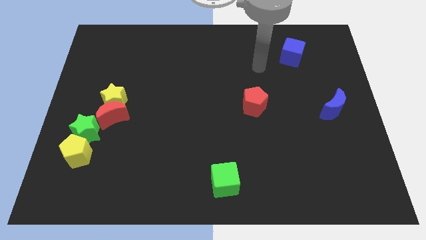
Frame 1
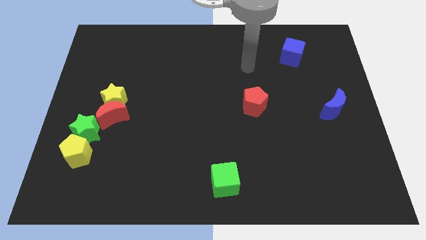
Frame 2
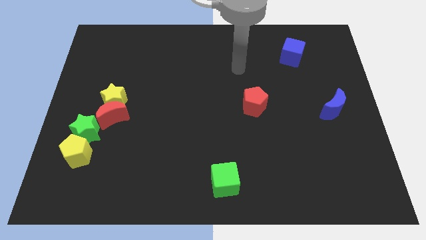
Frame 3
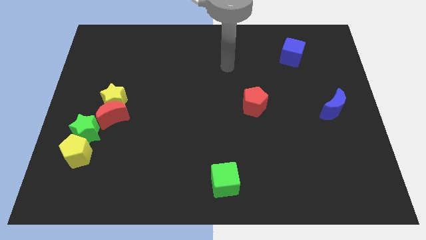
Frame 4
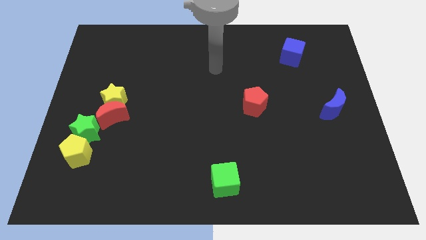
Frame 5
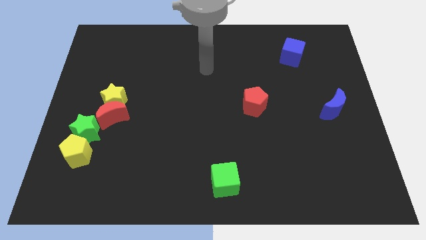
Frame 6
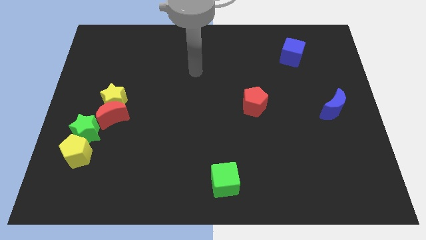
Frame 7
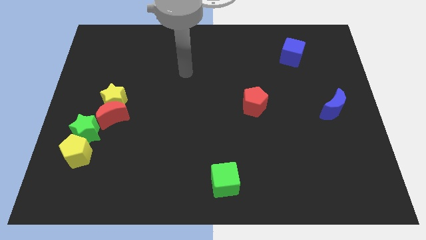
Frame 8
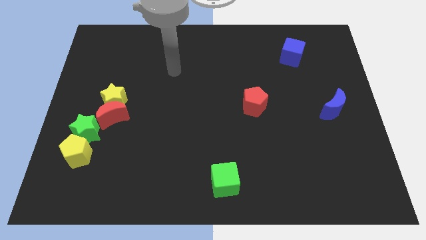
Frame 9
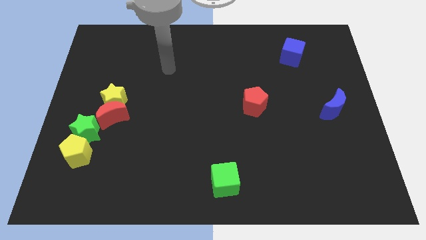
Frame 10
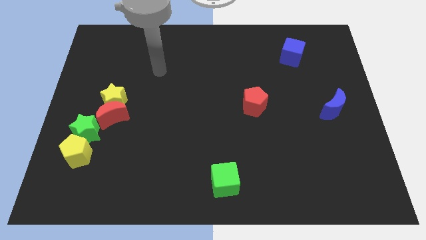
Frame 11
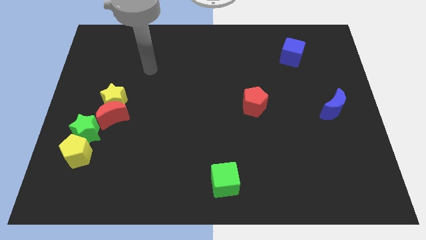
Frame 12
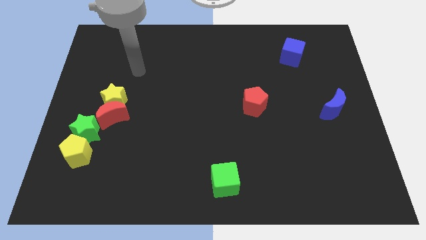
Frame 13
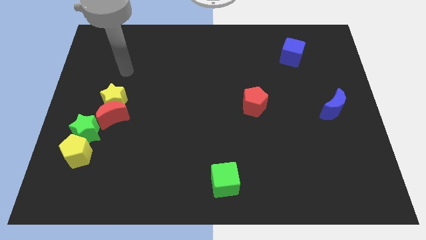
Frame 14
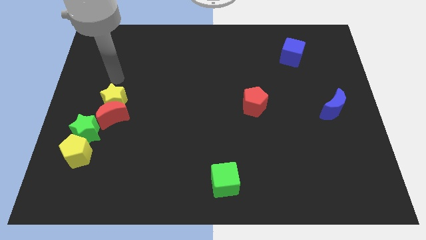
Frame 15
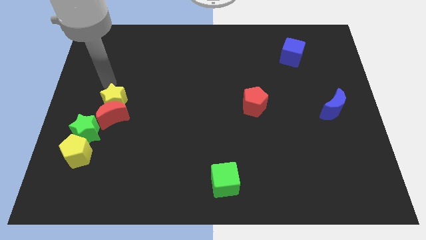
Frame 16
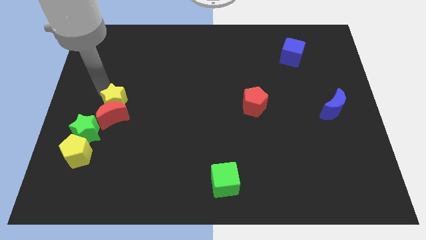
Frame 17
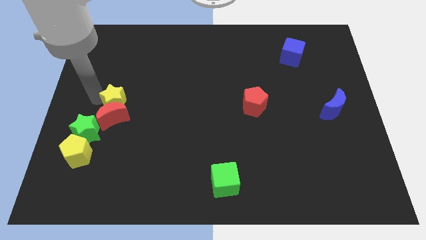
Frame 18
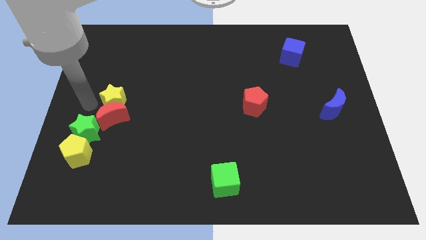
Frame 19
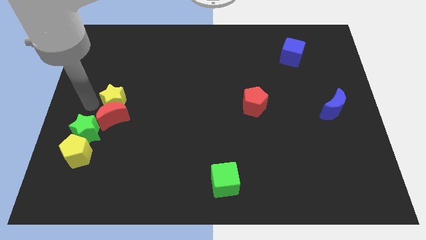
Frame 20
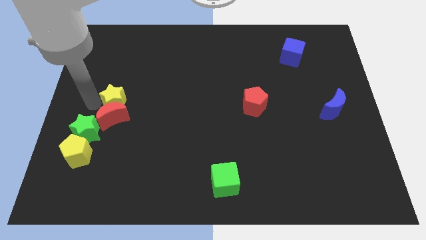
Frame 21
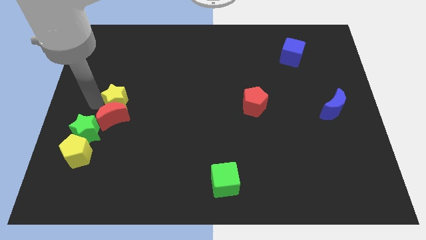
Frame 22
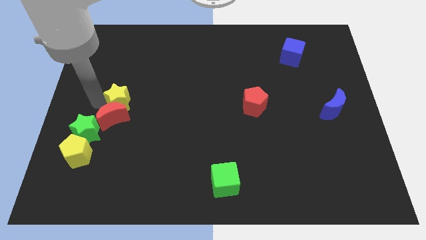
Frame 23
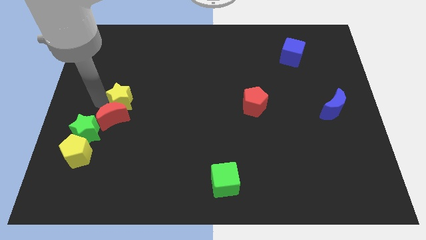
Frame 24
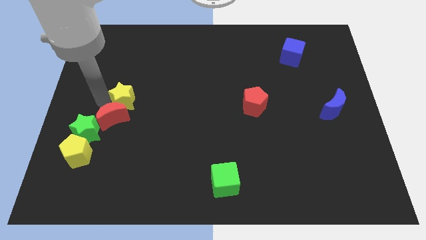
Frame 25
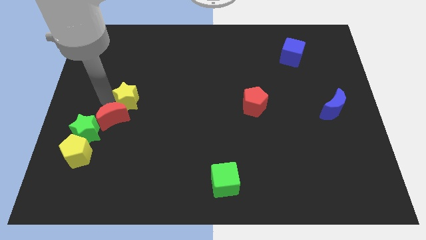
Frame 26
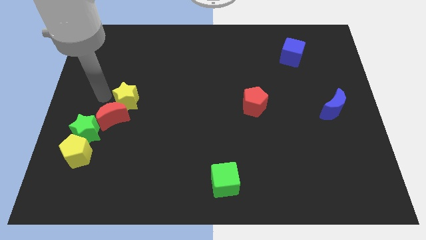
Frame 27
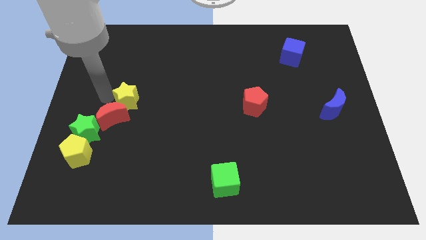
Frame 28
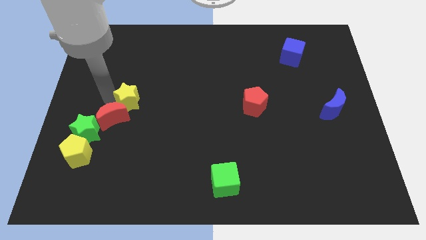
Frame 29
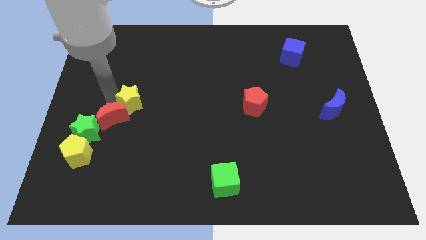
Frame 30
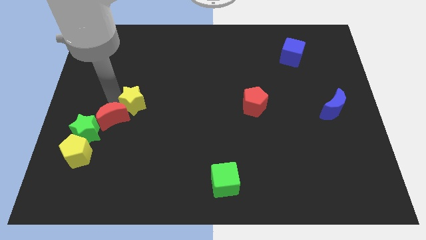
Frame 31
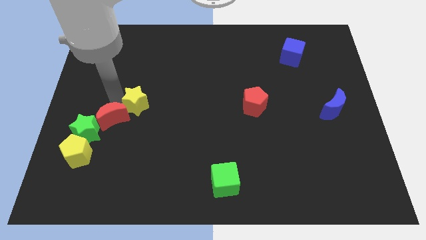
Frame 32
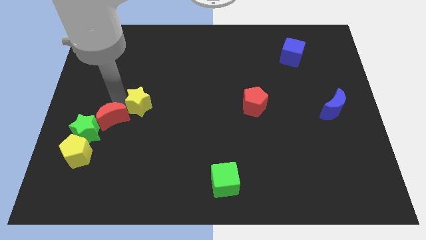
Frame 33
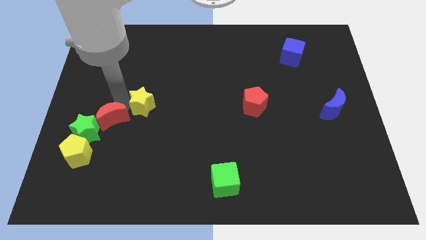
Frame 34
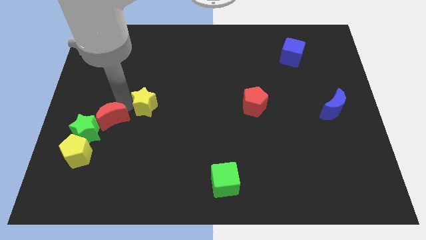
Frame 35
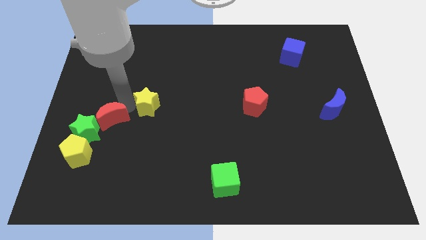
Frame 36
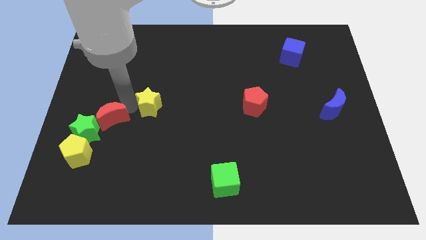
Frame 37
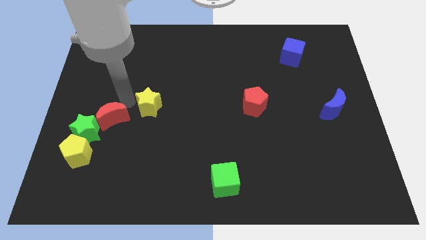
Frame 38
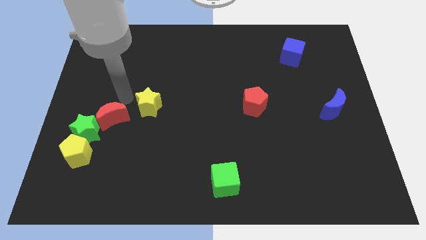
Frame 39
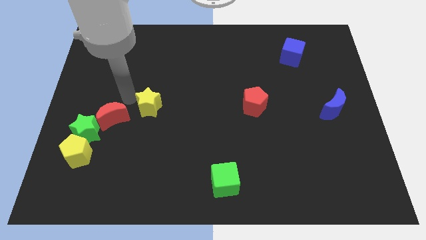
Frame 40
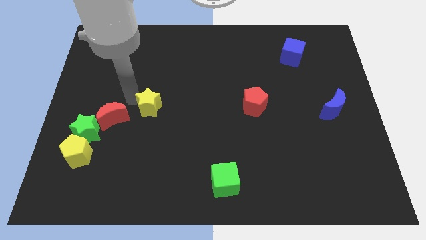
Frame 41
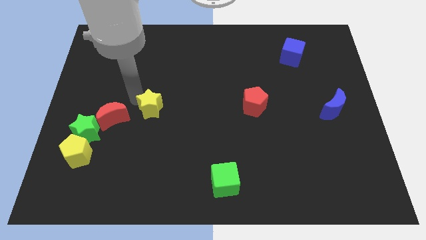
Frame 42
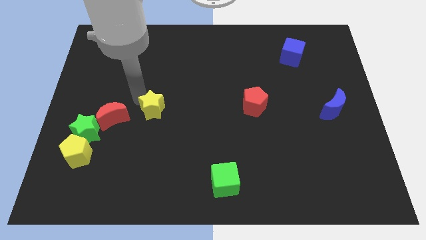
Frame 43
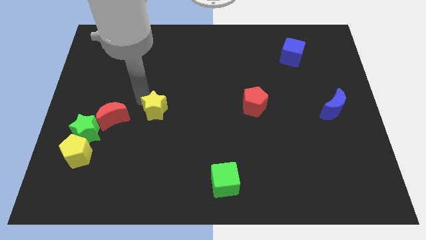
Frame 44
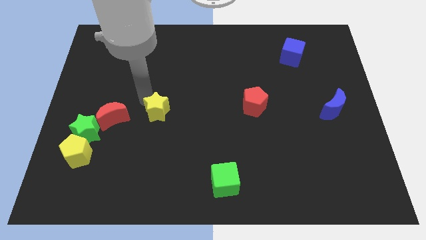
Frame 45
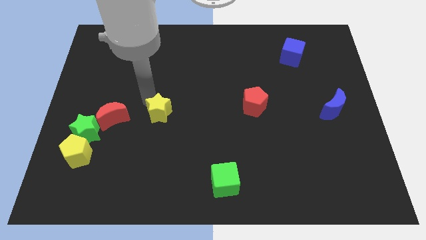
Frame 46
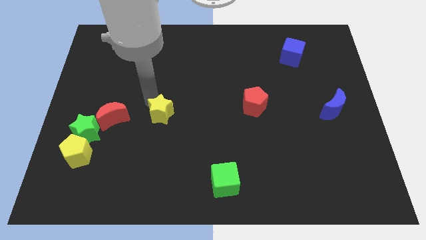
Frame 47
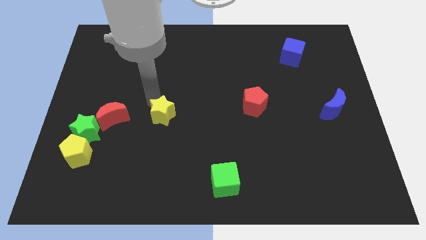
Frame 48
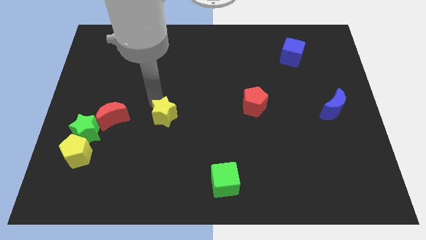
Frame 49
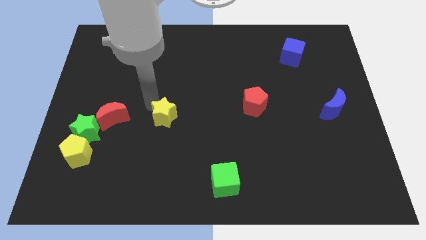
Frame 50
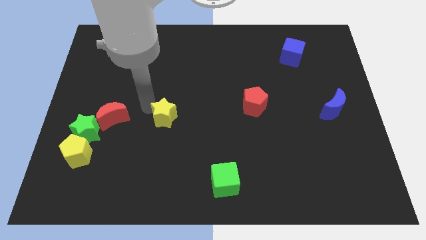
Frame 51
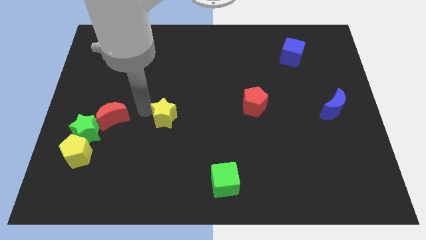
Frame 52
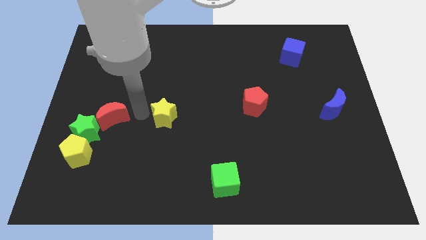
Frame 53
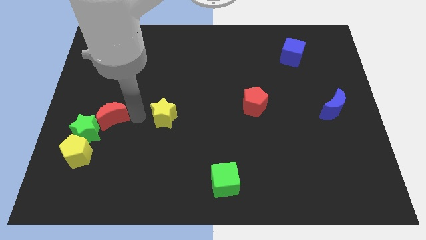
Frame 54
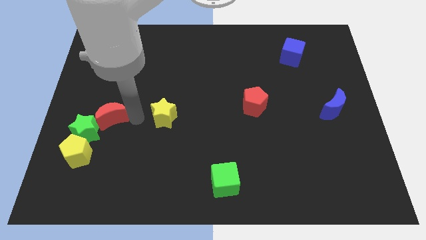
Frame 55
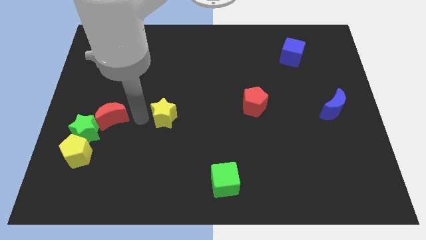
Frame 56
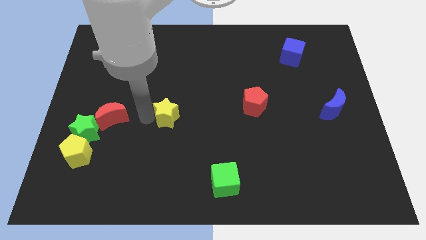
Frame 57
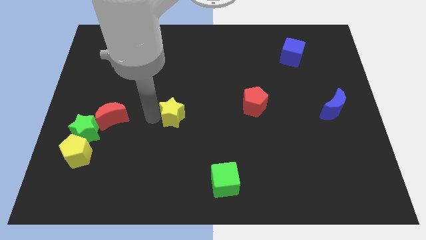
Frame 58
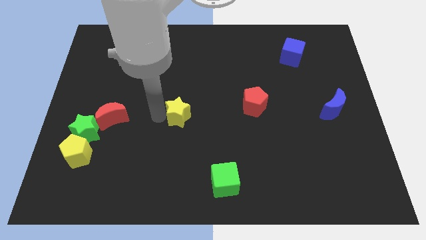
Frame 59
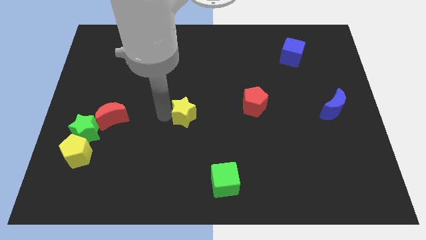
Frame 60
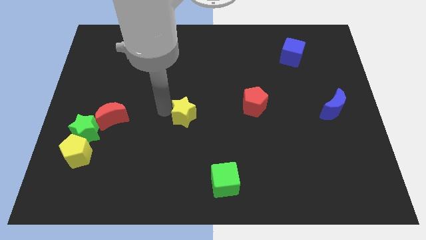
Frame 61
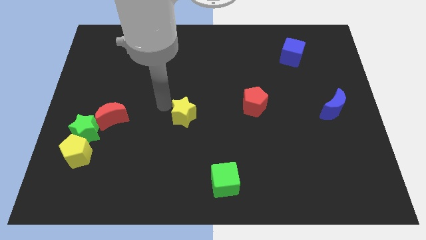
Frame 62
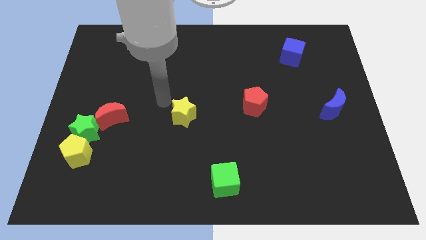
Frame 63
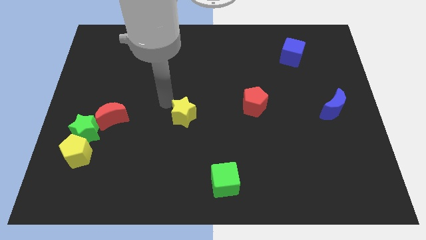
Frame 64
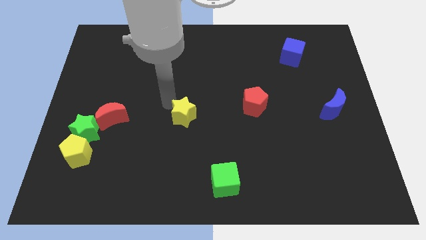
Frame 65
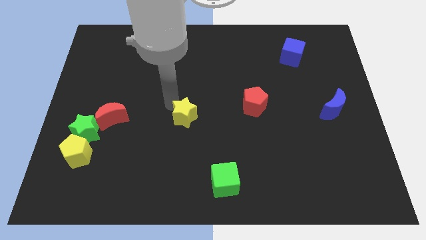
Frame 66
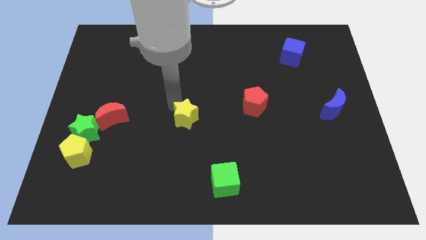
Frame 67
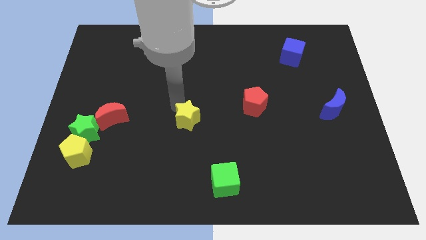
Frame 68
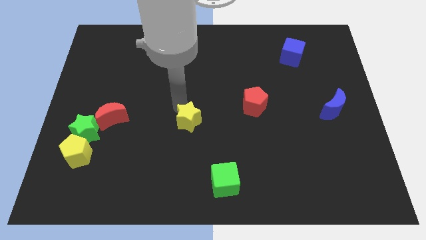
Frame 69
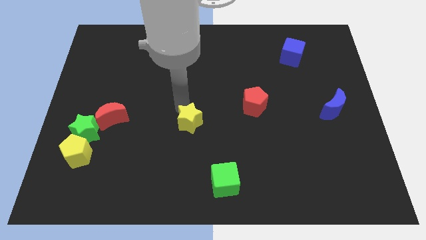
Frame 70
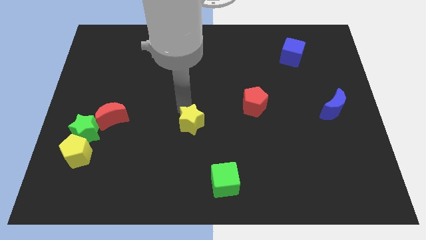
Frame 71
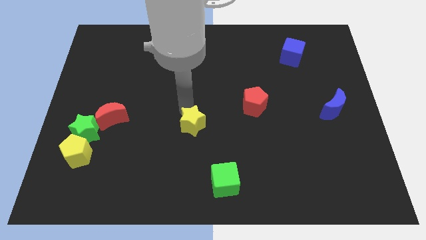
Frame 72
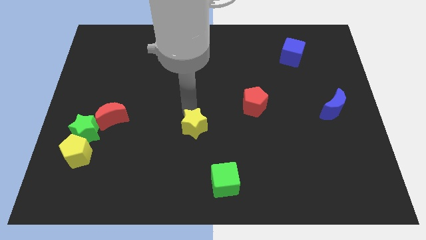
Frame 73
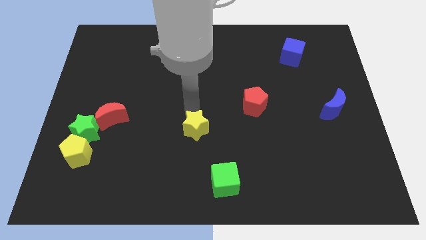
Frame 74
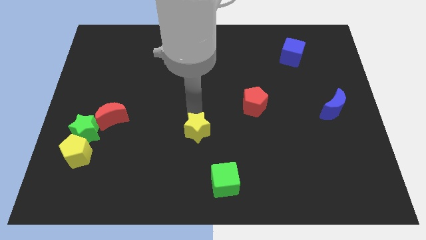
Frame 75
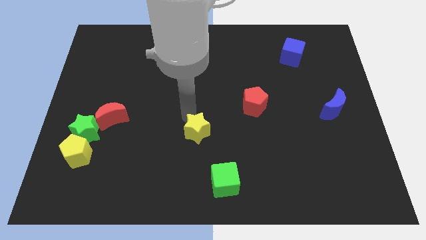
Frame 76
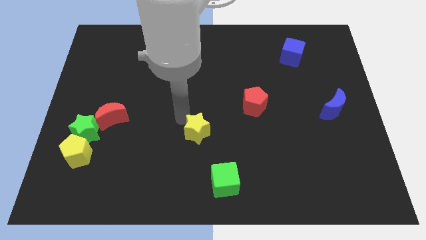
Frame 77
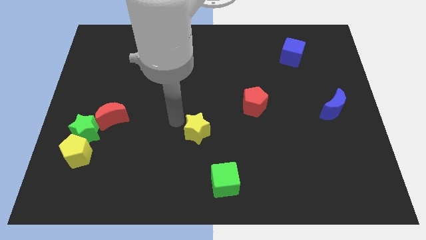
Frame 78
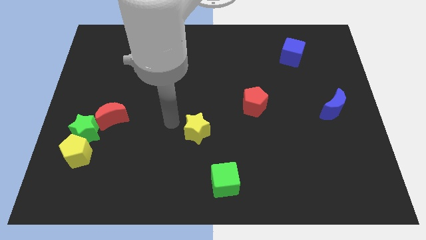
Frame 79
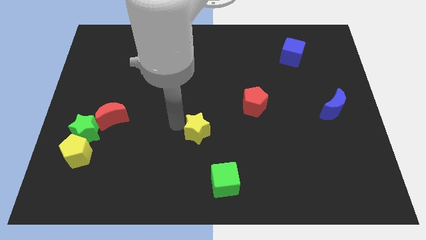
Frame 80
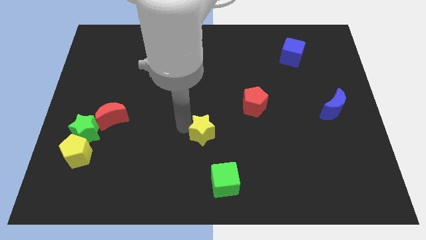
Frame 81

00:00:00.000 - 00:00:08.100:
move the yellow star to the top of the green cube
